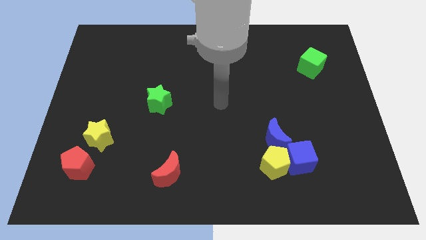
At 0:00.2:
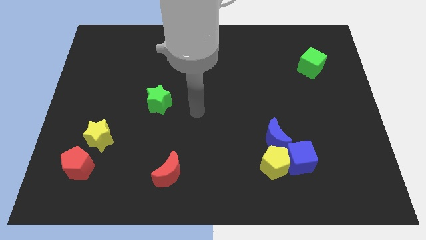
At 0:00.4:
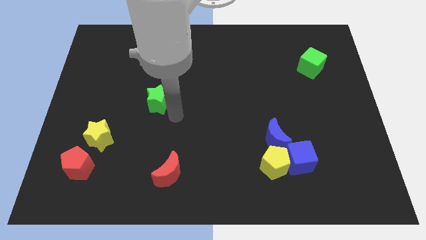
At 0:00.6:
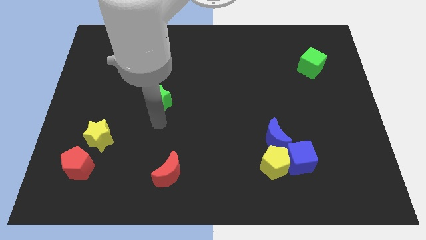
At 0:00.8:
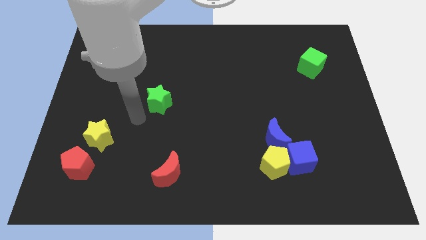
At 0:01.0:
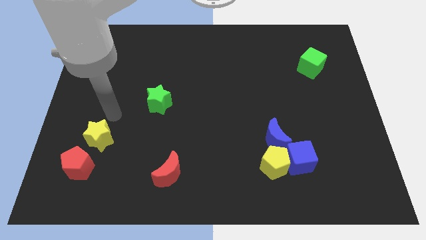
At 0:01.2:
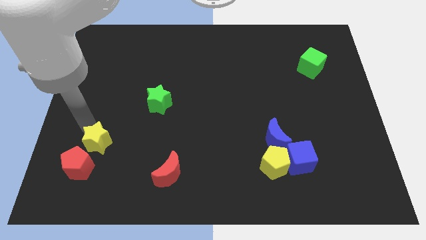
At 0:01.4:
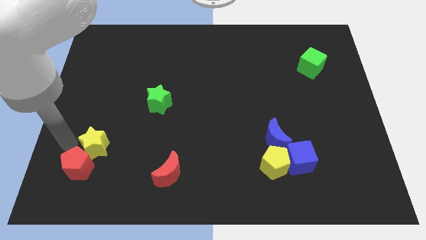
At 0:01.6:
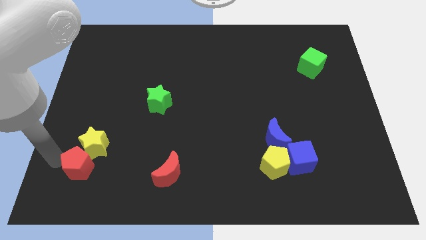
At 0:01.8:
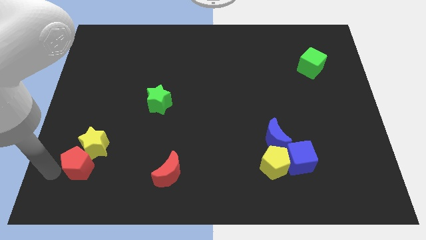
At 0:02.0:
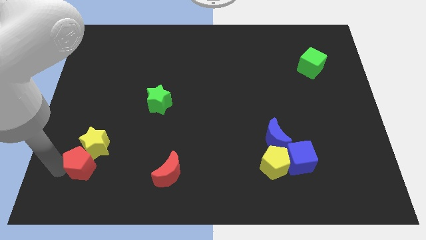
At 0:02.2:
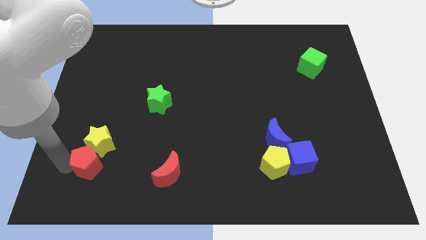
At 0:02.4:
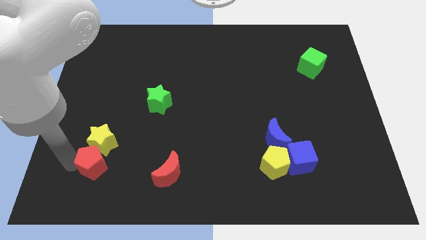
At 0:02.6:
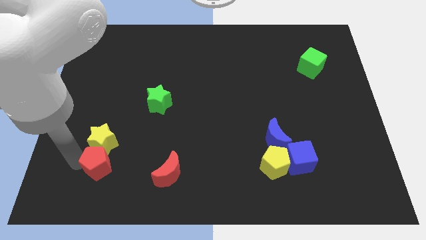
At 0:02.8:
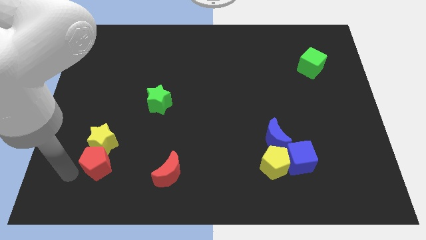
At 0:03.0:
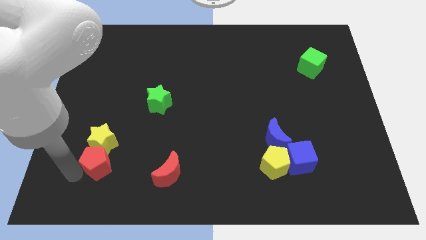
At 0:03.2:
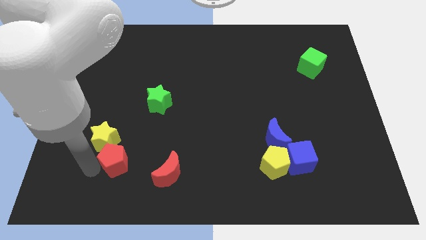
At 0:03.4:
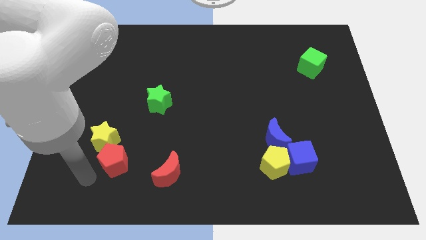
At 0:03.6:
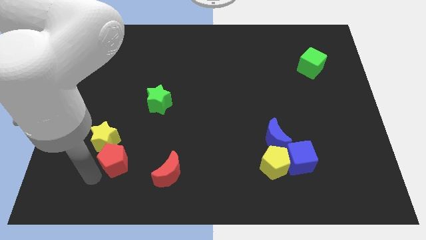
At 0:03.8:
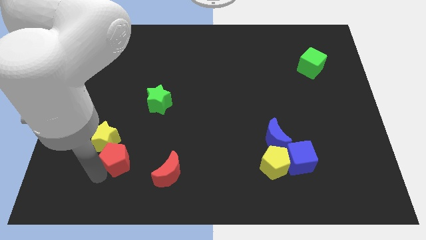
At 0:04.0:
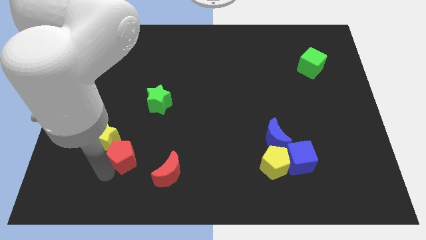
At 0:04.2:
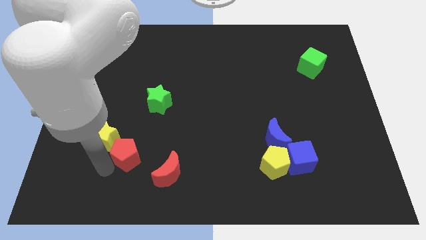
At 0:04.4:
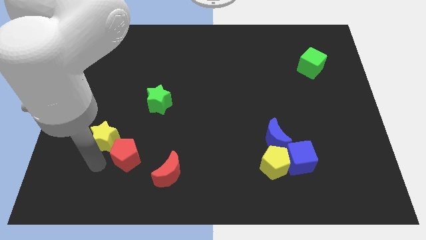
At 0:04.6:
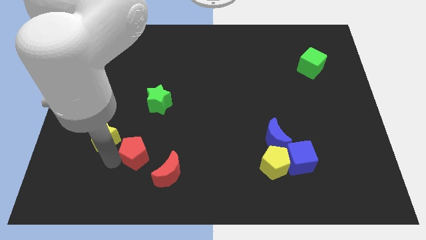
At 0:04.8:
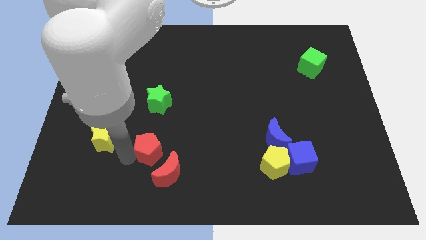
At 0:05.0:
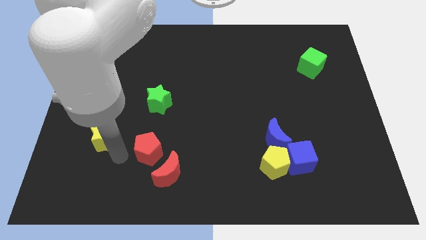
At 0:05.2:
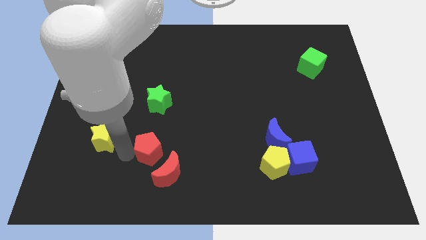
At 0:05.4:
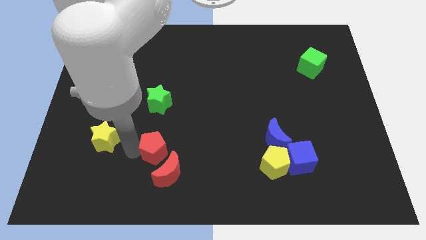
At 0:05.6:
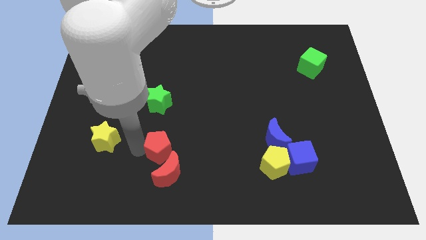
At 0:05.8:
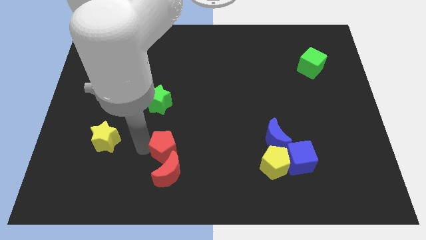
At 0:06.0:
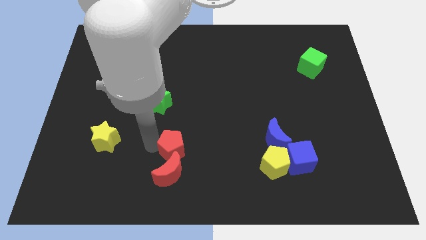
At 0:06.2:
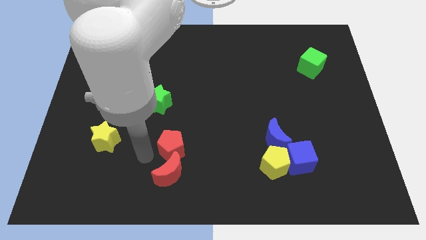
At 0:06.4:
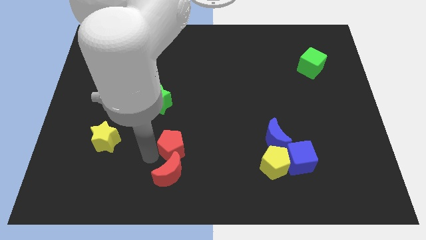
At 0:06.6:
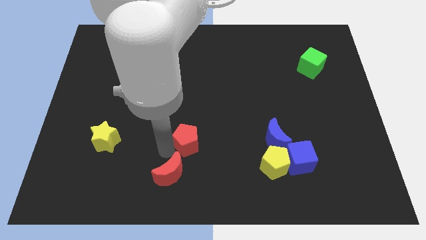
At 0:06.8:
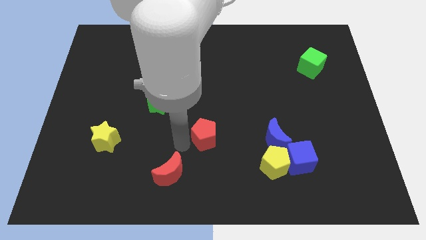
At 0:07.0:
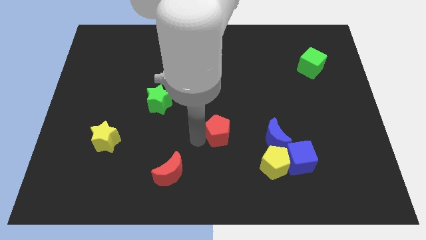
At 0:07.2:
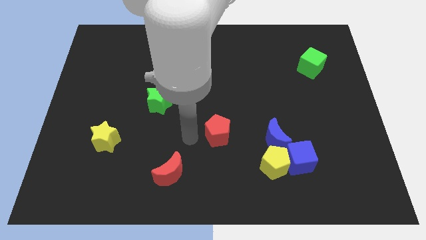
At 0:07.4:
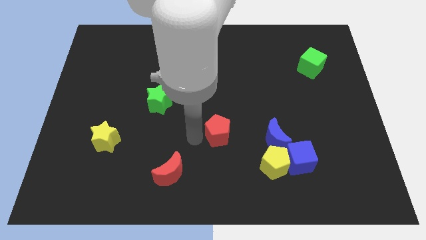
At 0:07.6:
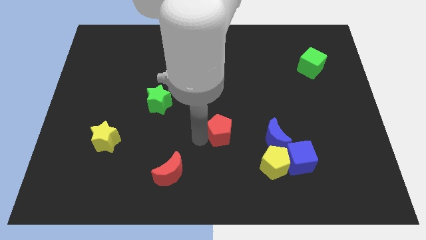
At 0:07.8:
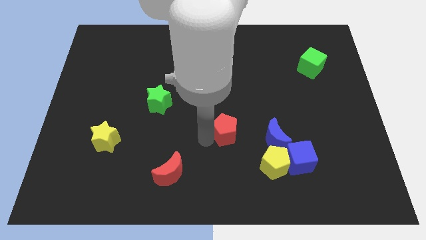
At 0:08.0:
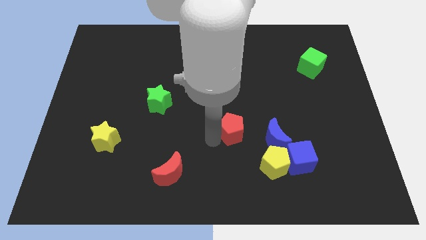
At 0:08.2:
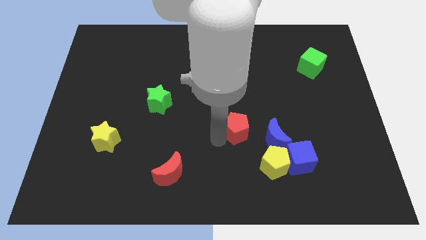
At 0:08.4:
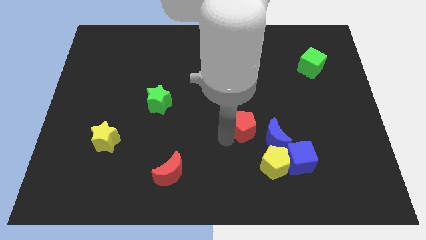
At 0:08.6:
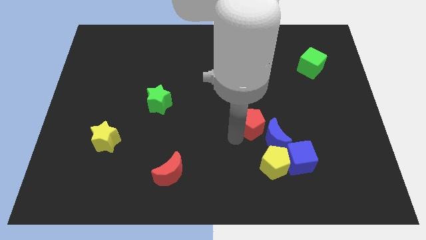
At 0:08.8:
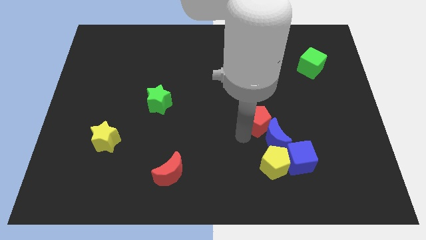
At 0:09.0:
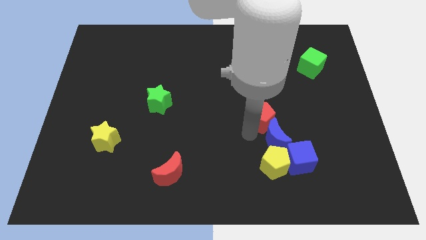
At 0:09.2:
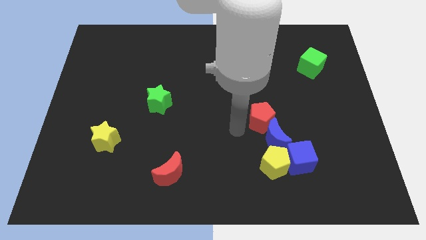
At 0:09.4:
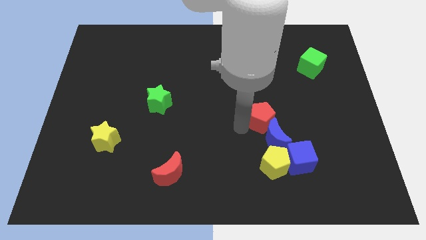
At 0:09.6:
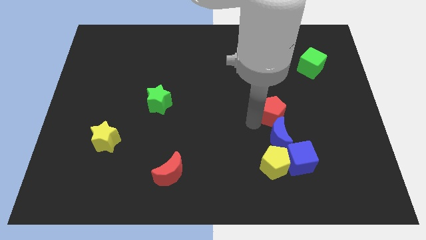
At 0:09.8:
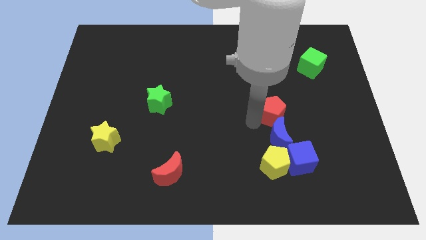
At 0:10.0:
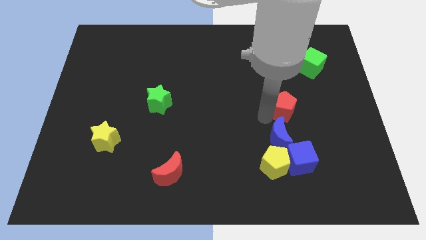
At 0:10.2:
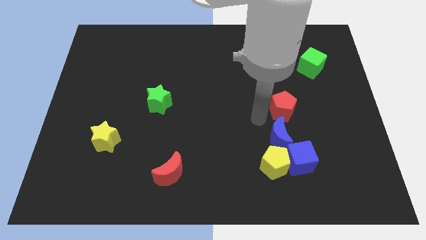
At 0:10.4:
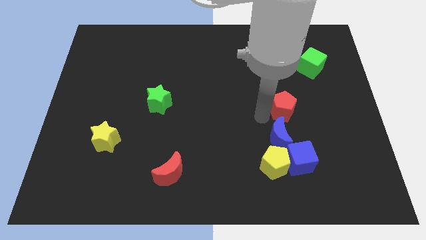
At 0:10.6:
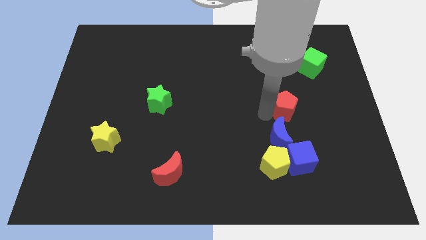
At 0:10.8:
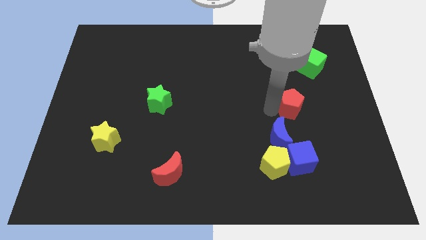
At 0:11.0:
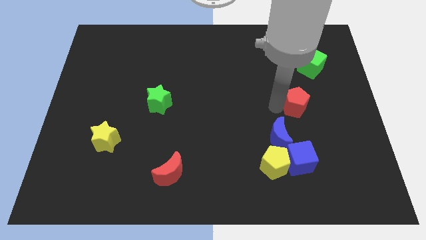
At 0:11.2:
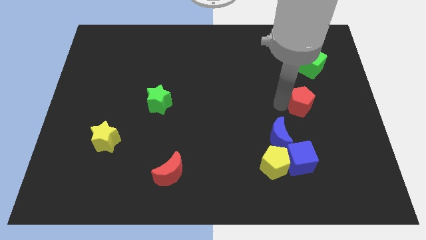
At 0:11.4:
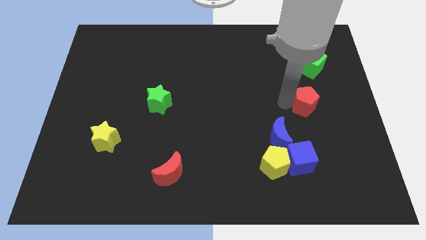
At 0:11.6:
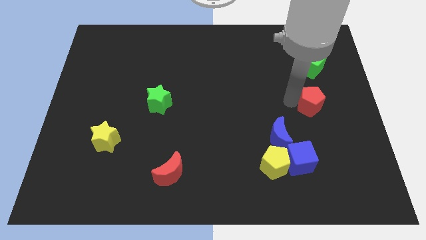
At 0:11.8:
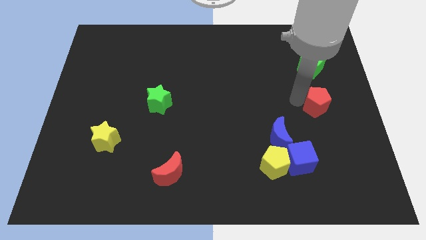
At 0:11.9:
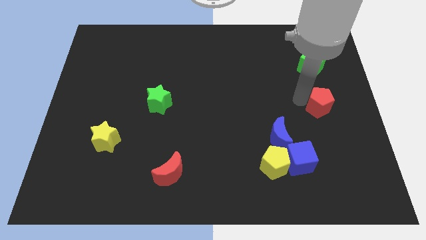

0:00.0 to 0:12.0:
slide the red pentagon to the right side

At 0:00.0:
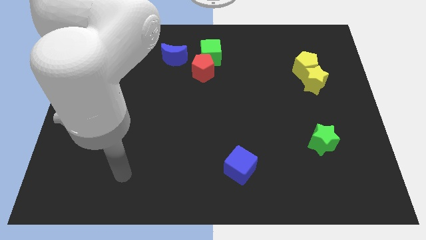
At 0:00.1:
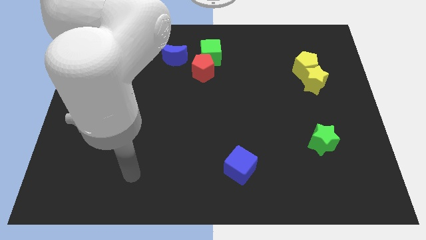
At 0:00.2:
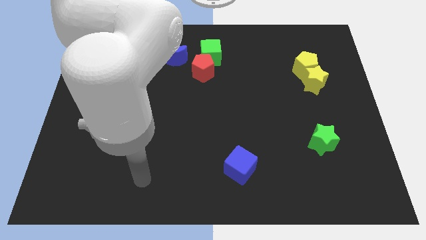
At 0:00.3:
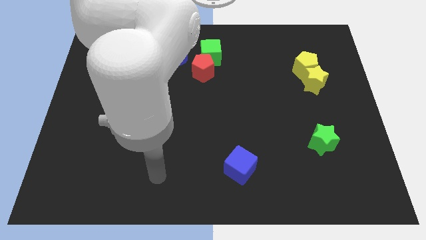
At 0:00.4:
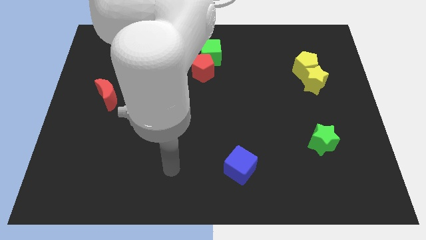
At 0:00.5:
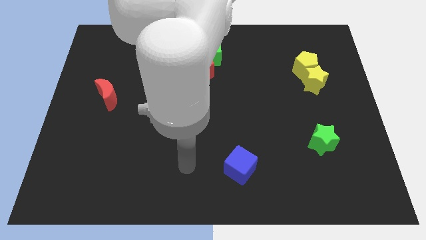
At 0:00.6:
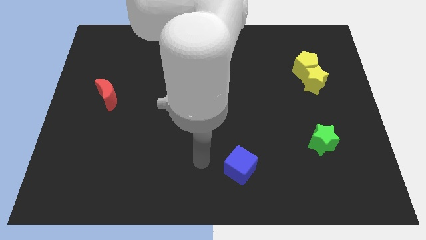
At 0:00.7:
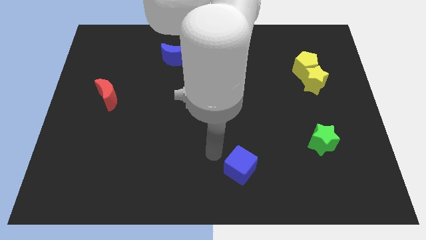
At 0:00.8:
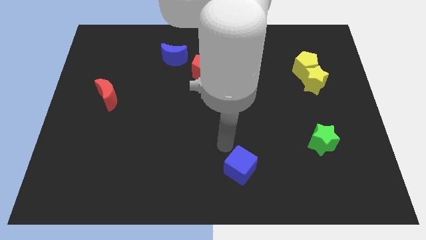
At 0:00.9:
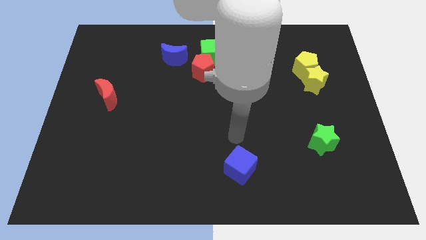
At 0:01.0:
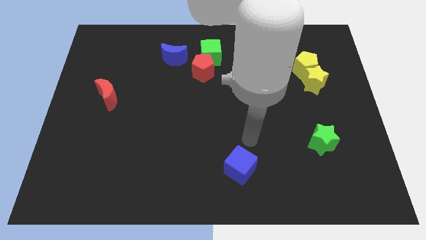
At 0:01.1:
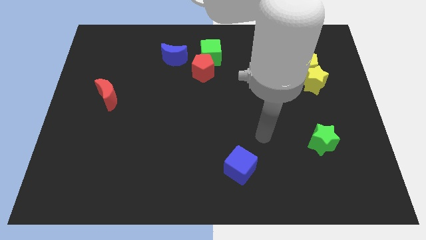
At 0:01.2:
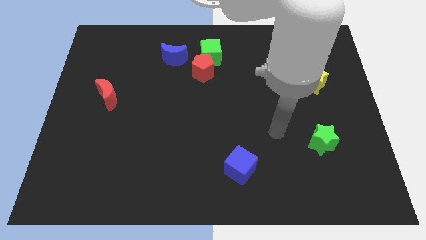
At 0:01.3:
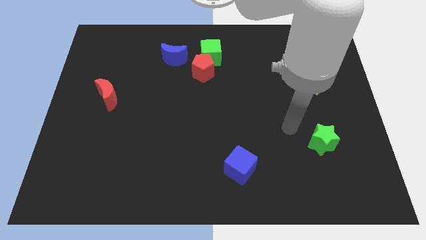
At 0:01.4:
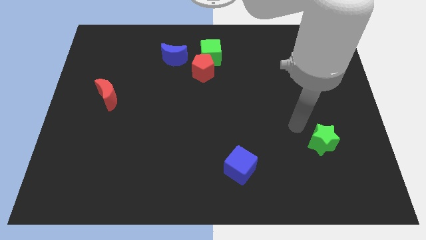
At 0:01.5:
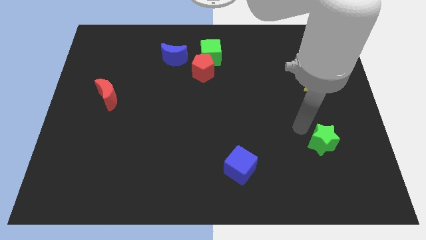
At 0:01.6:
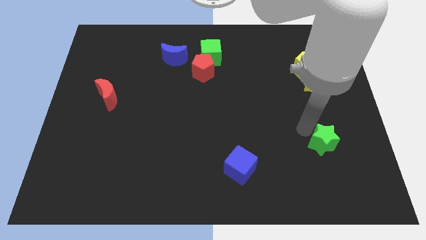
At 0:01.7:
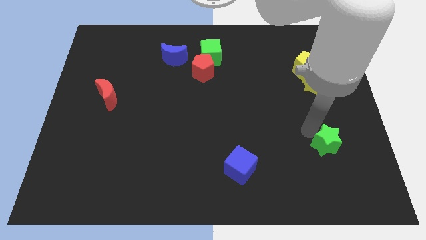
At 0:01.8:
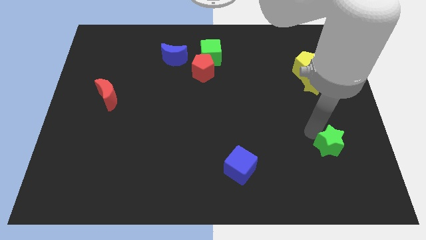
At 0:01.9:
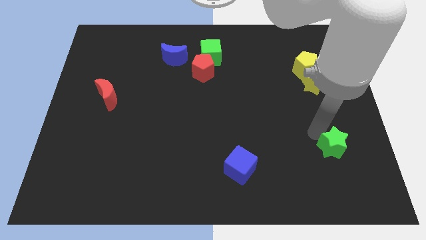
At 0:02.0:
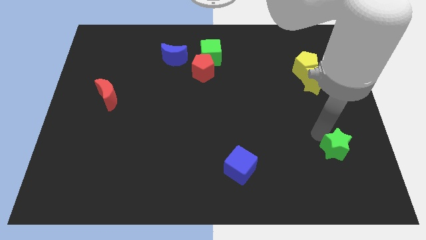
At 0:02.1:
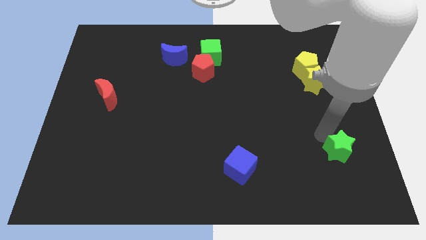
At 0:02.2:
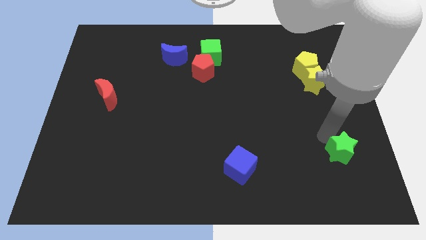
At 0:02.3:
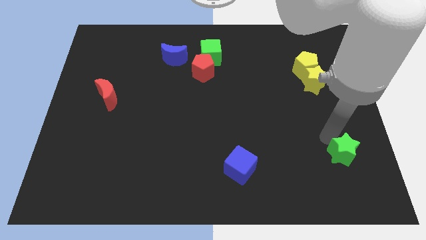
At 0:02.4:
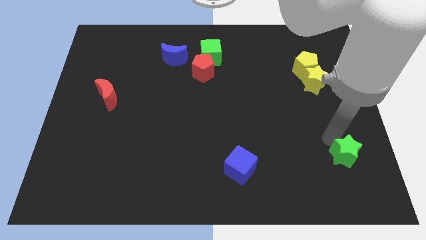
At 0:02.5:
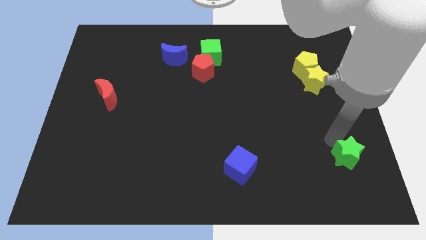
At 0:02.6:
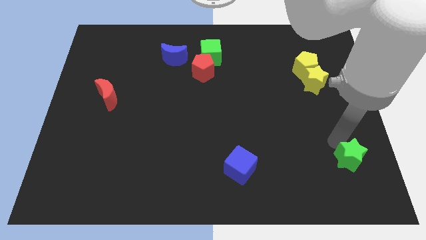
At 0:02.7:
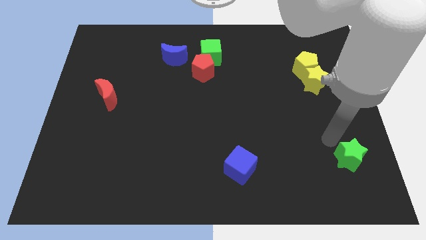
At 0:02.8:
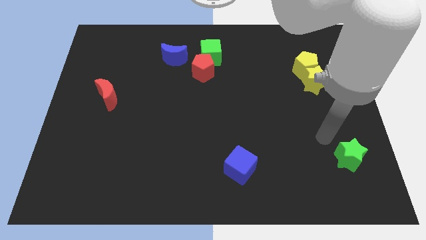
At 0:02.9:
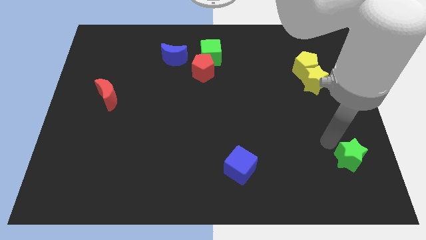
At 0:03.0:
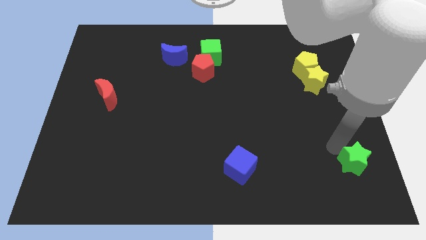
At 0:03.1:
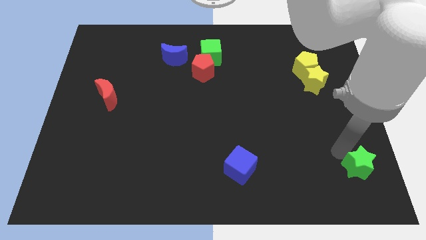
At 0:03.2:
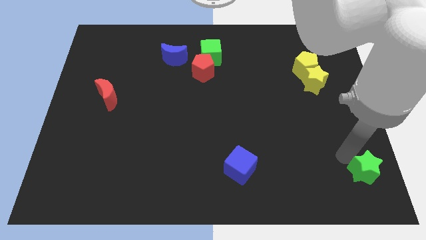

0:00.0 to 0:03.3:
put the green star to the bottom right of the board
